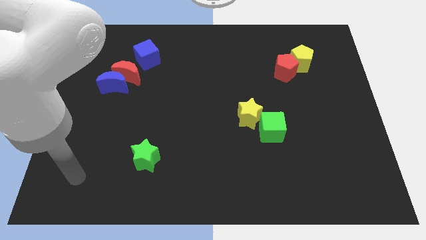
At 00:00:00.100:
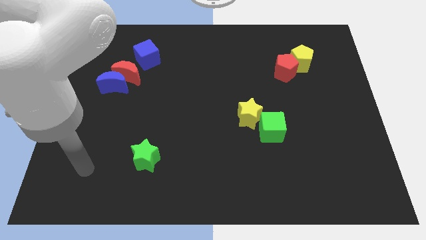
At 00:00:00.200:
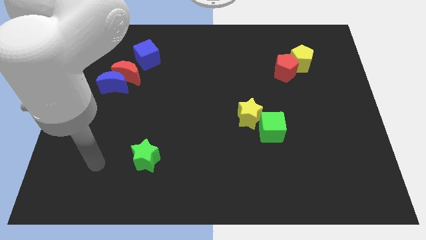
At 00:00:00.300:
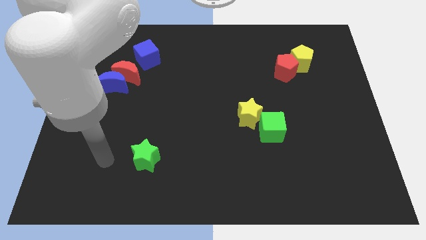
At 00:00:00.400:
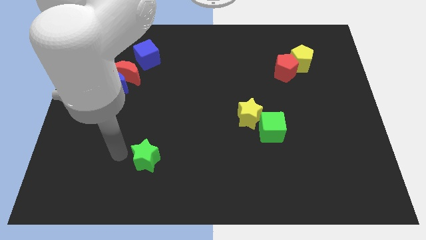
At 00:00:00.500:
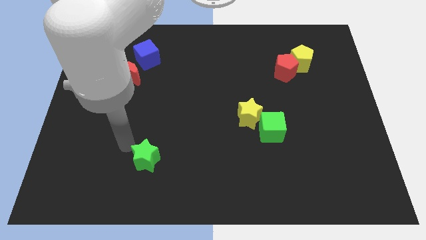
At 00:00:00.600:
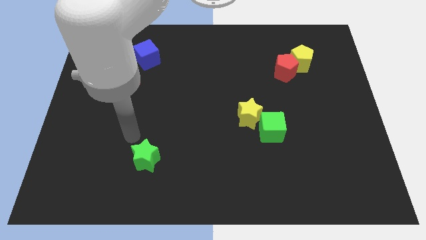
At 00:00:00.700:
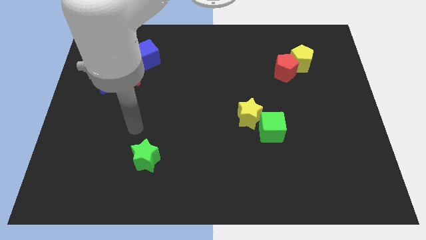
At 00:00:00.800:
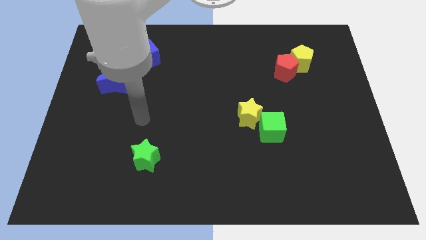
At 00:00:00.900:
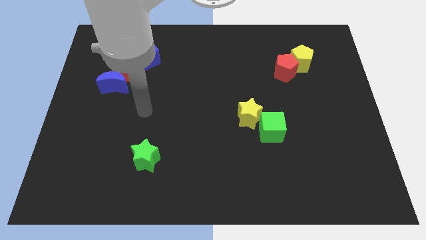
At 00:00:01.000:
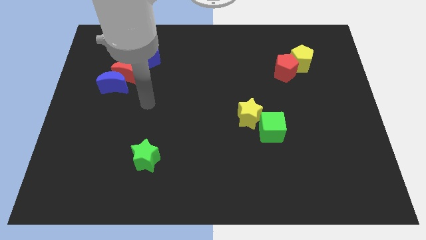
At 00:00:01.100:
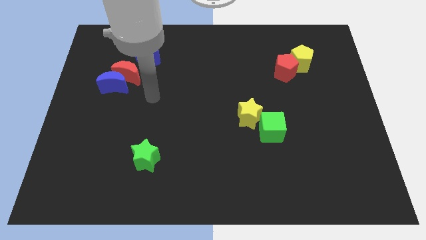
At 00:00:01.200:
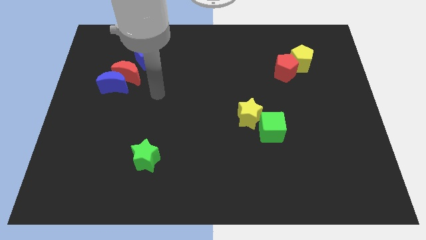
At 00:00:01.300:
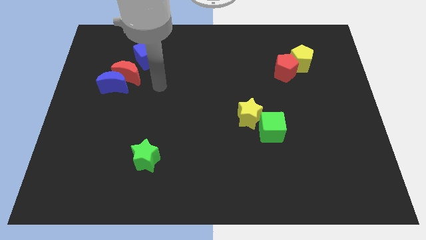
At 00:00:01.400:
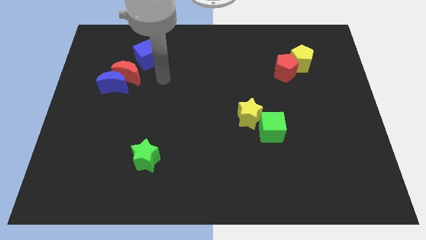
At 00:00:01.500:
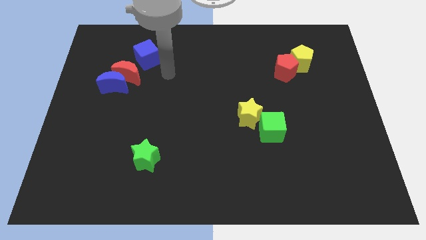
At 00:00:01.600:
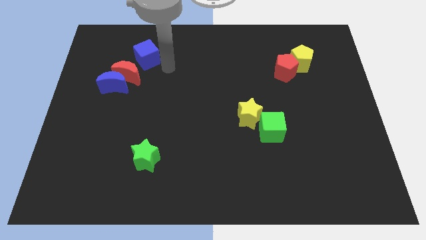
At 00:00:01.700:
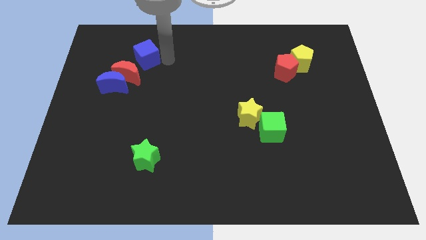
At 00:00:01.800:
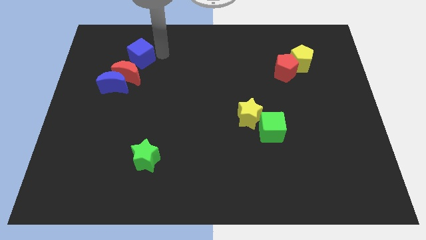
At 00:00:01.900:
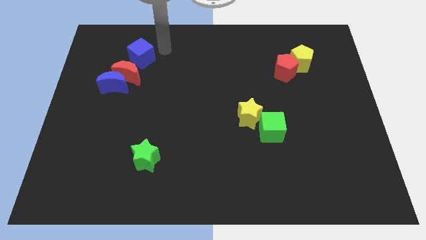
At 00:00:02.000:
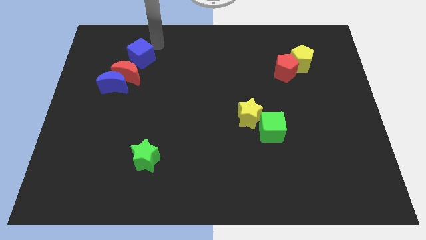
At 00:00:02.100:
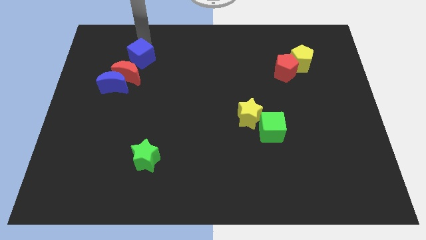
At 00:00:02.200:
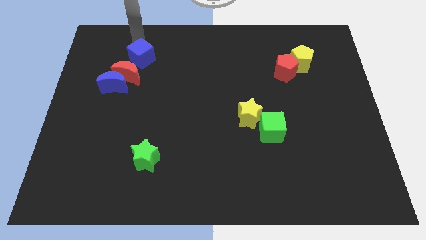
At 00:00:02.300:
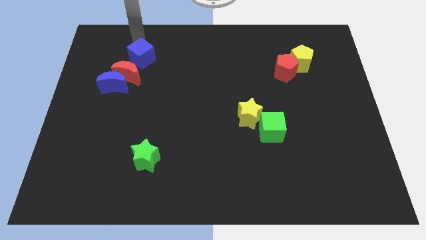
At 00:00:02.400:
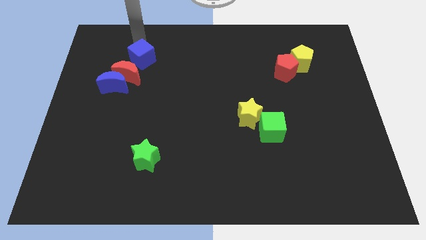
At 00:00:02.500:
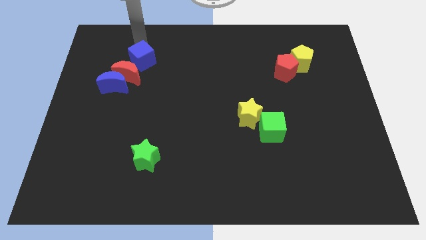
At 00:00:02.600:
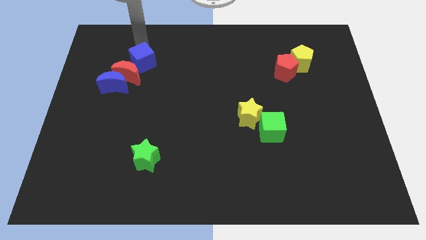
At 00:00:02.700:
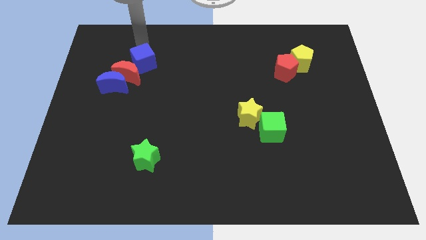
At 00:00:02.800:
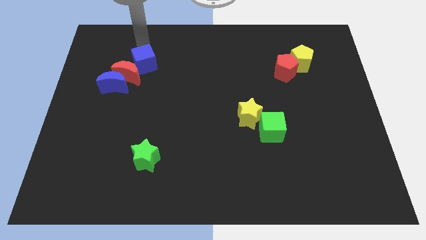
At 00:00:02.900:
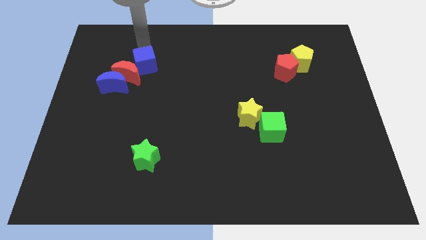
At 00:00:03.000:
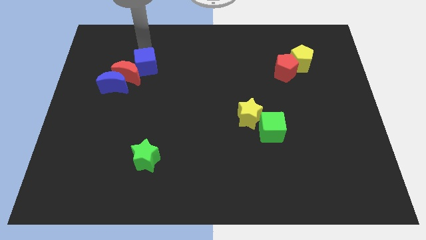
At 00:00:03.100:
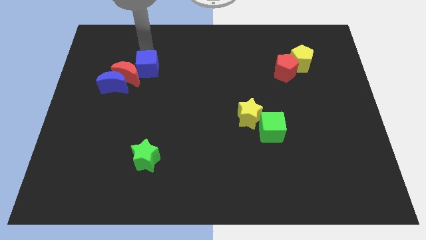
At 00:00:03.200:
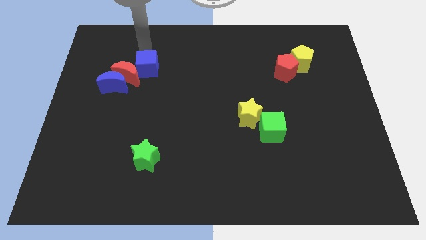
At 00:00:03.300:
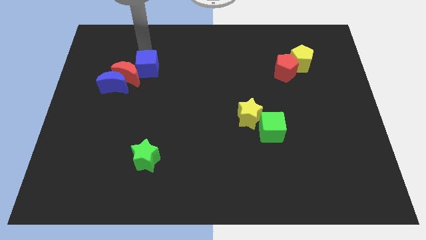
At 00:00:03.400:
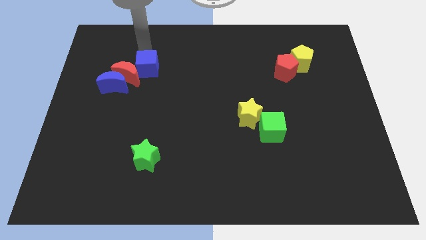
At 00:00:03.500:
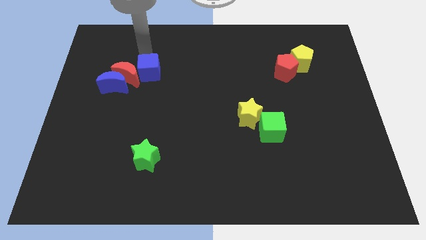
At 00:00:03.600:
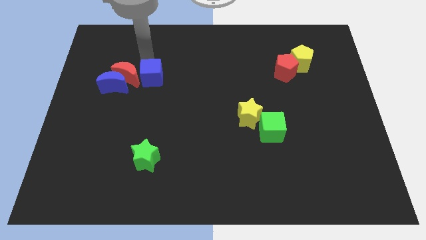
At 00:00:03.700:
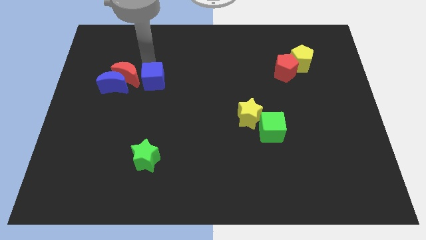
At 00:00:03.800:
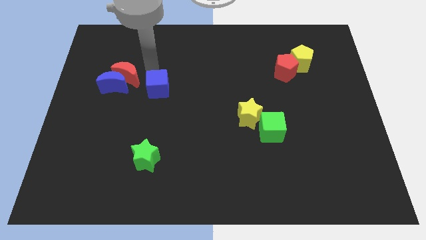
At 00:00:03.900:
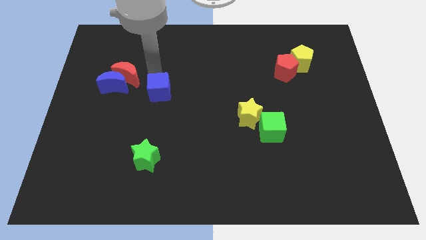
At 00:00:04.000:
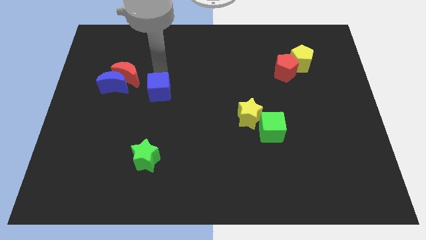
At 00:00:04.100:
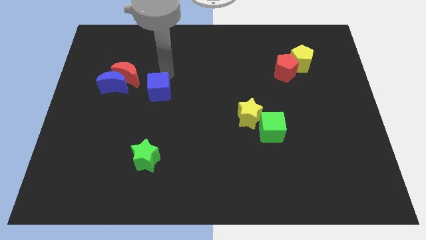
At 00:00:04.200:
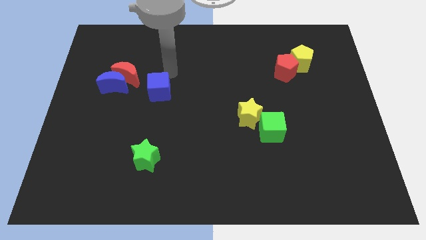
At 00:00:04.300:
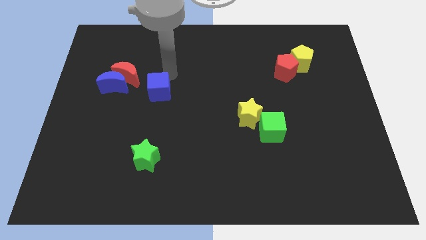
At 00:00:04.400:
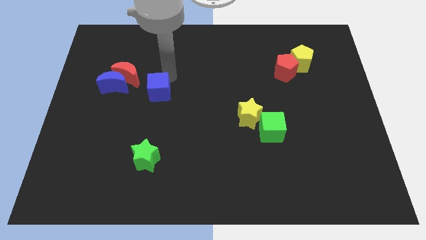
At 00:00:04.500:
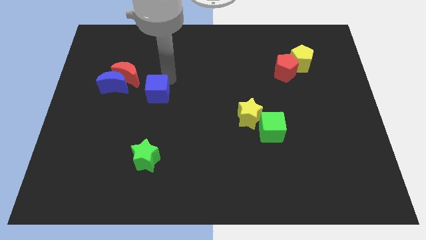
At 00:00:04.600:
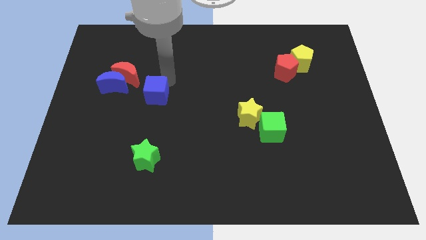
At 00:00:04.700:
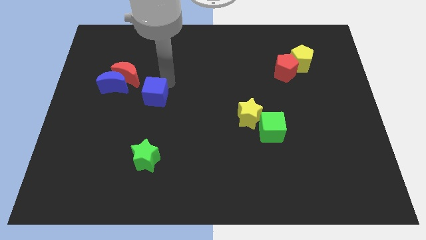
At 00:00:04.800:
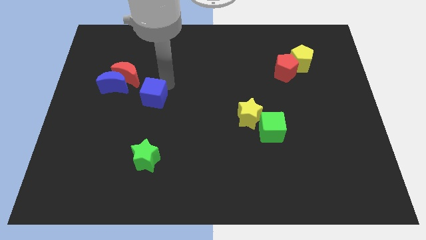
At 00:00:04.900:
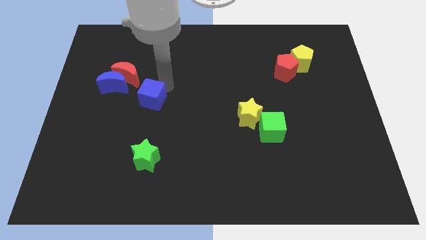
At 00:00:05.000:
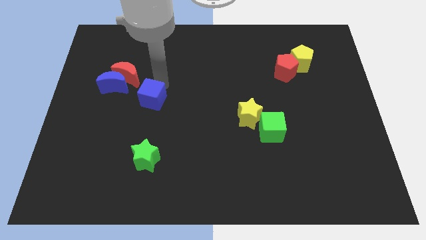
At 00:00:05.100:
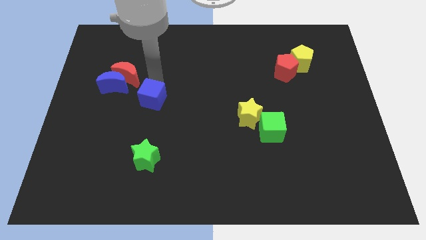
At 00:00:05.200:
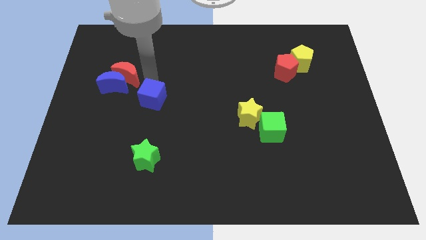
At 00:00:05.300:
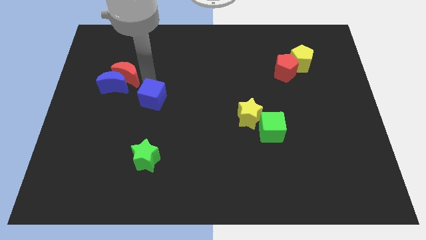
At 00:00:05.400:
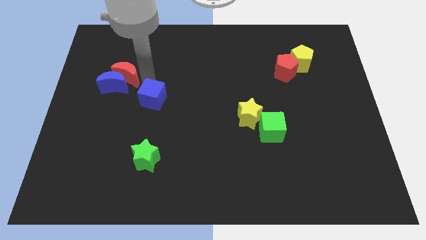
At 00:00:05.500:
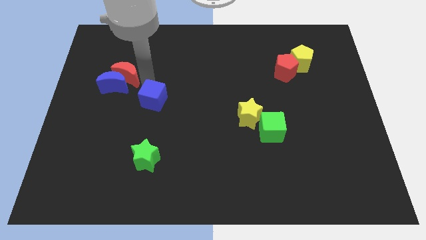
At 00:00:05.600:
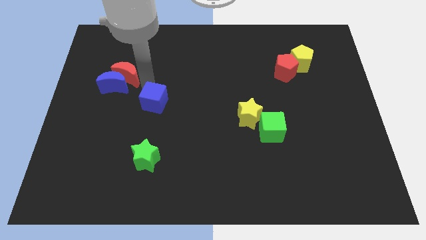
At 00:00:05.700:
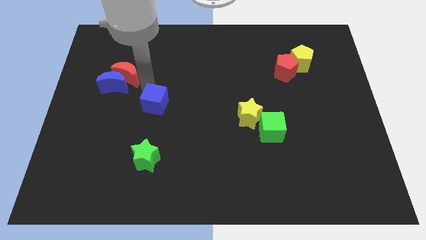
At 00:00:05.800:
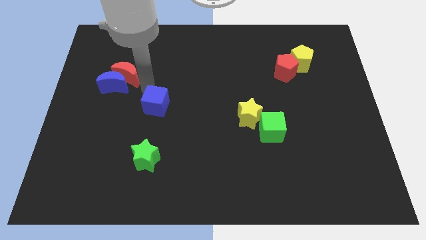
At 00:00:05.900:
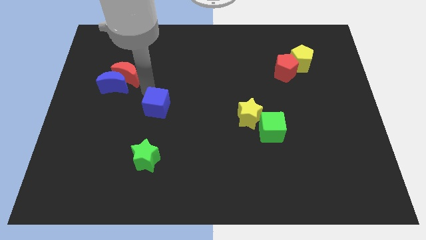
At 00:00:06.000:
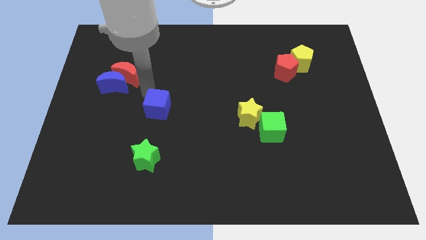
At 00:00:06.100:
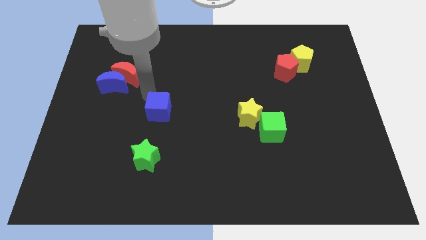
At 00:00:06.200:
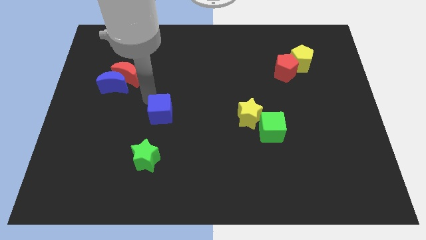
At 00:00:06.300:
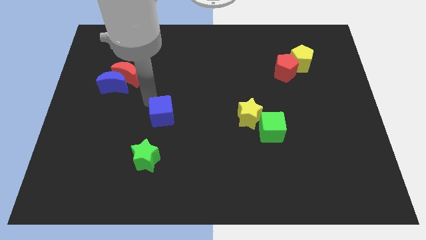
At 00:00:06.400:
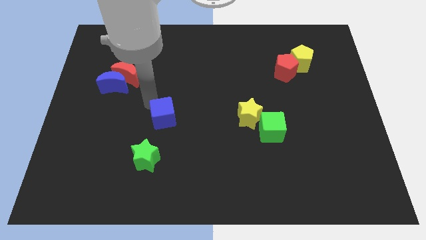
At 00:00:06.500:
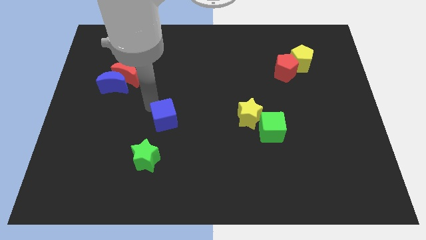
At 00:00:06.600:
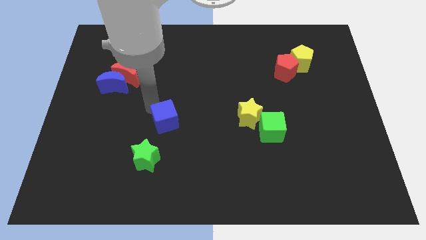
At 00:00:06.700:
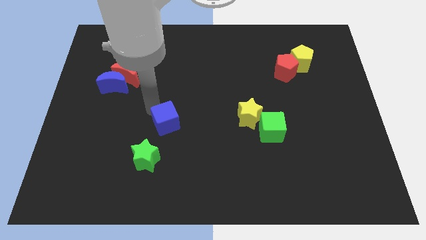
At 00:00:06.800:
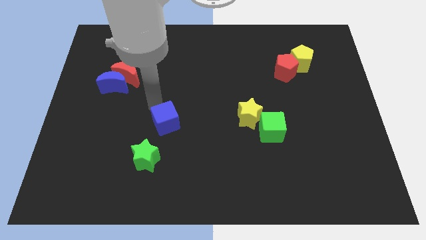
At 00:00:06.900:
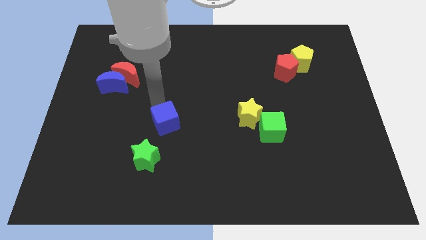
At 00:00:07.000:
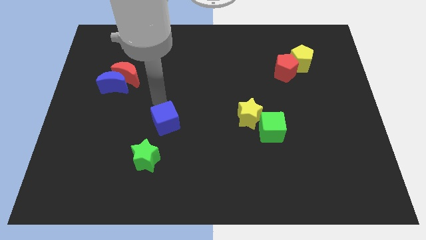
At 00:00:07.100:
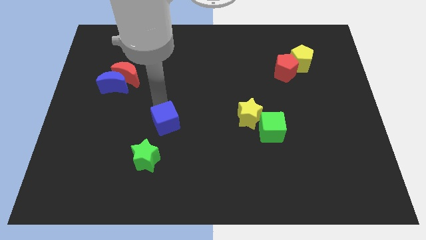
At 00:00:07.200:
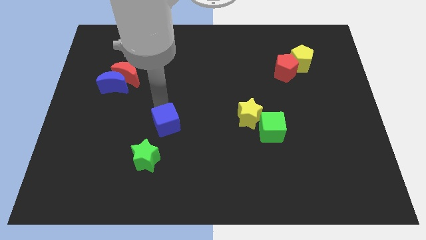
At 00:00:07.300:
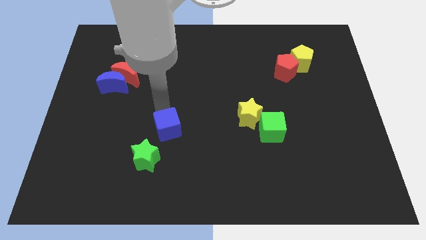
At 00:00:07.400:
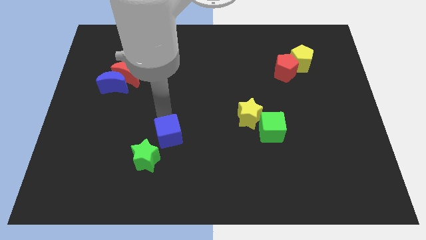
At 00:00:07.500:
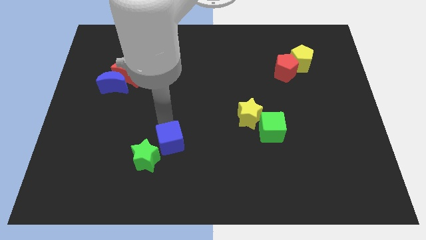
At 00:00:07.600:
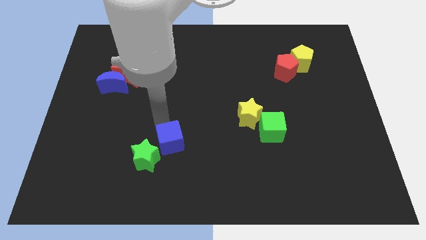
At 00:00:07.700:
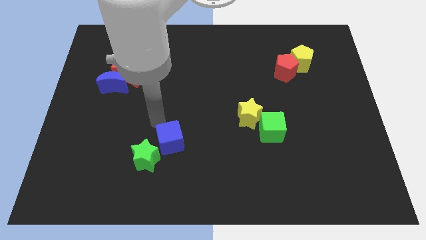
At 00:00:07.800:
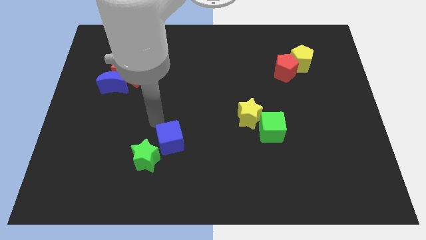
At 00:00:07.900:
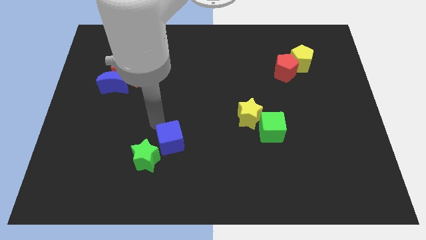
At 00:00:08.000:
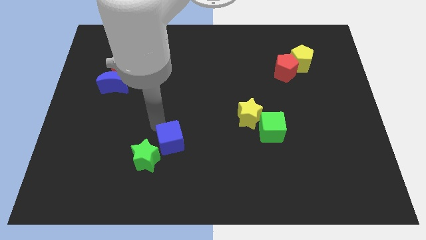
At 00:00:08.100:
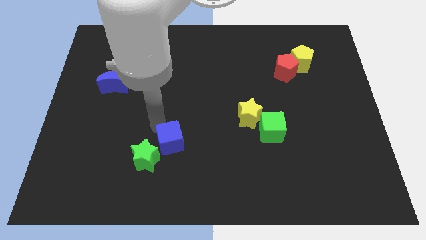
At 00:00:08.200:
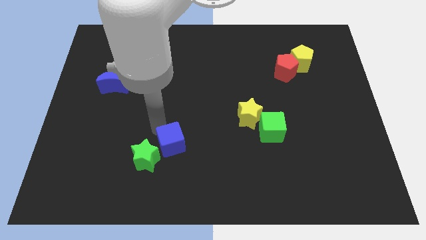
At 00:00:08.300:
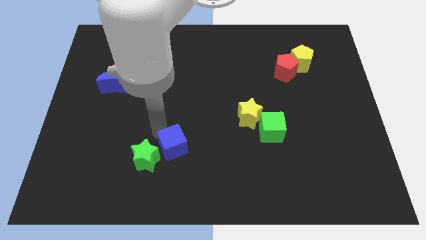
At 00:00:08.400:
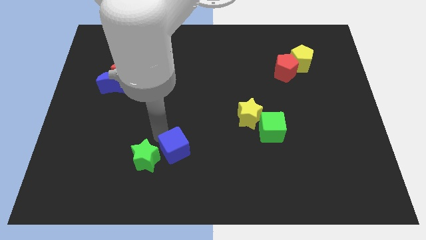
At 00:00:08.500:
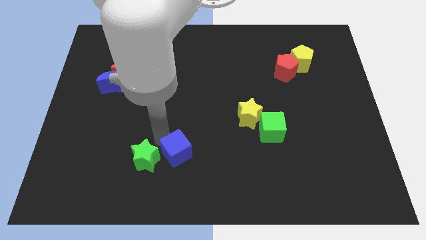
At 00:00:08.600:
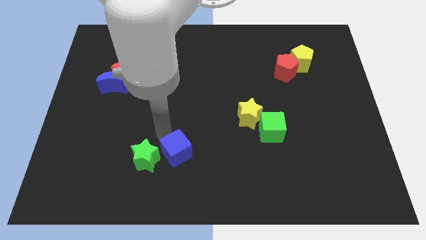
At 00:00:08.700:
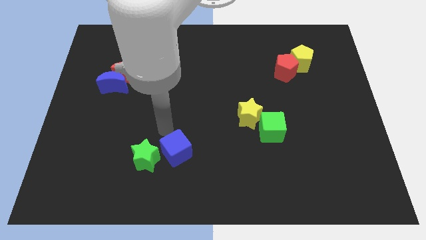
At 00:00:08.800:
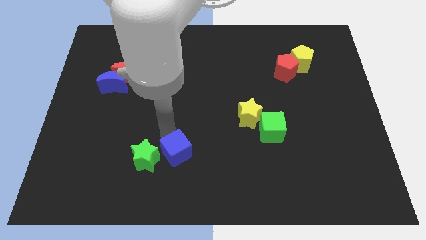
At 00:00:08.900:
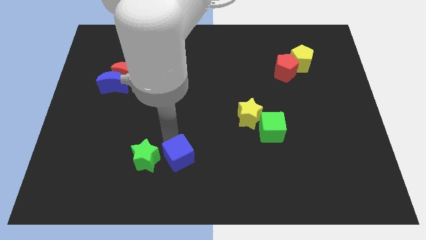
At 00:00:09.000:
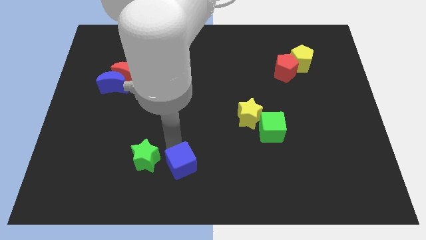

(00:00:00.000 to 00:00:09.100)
put the blue cube to the bottom
